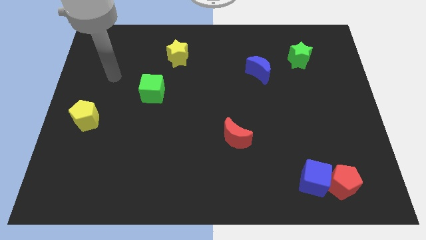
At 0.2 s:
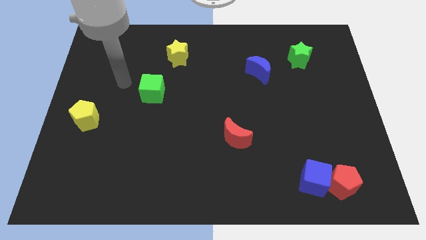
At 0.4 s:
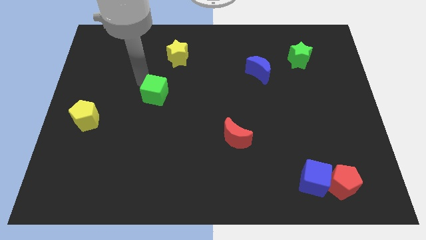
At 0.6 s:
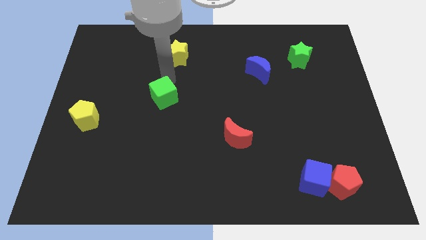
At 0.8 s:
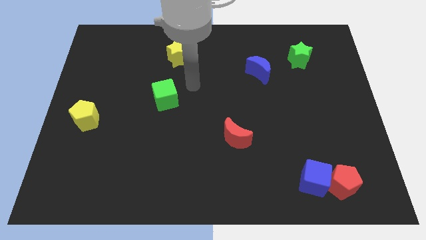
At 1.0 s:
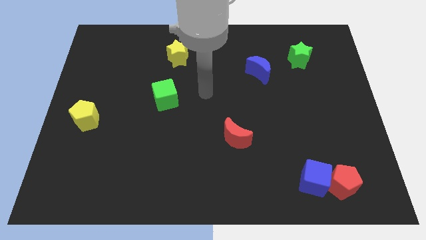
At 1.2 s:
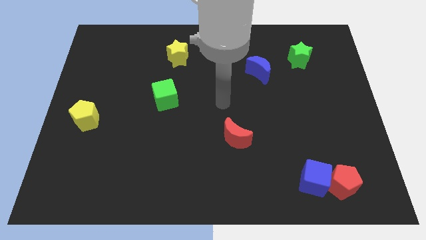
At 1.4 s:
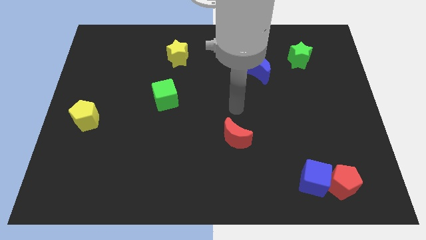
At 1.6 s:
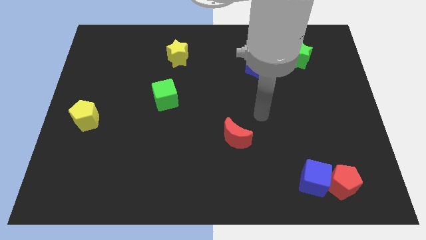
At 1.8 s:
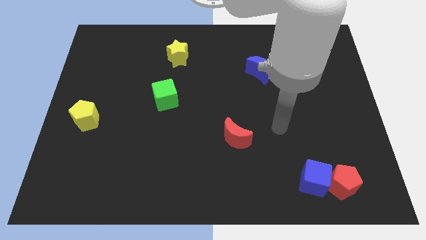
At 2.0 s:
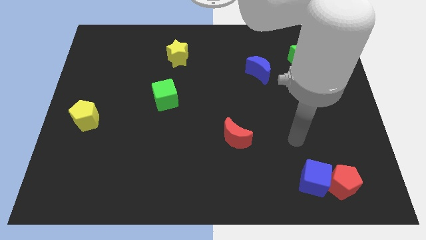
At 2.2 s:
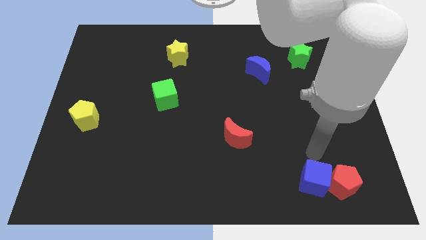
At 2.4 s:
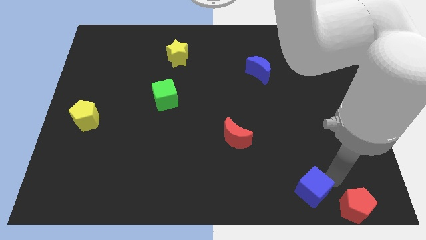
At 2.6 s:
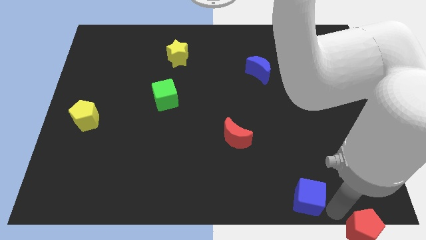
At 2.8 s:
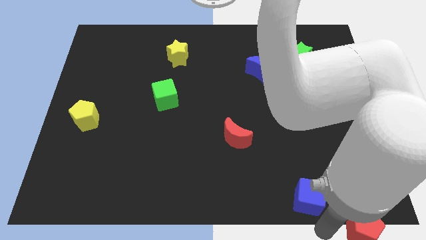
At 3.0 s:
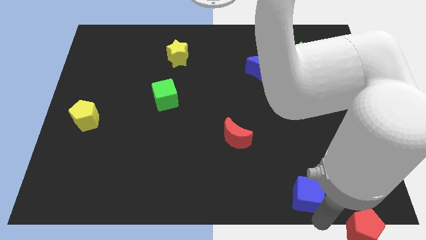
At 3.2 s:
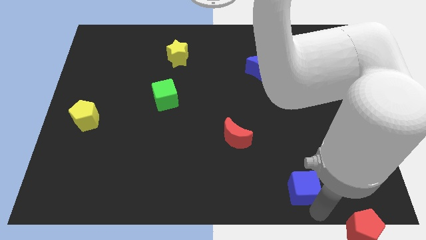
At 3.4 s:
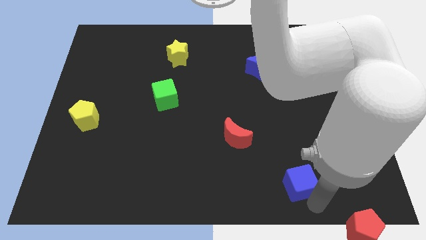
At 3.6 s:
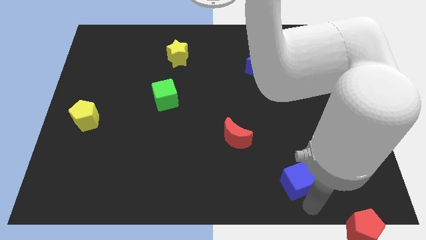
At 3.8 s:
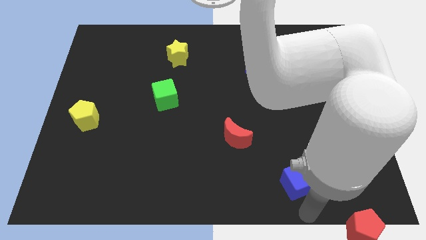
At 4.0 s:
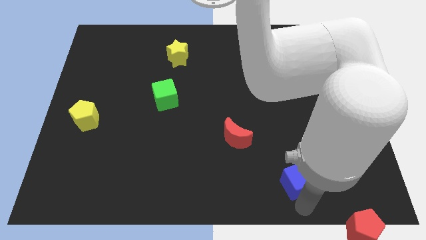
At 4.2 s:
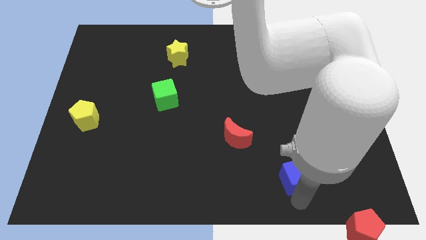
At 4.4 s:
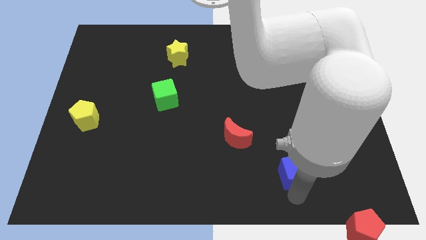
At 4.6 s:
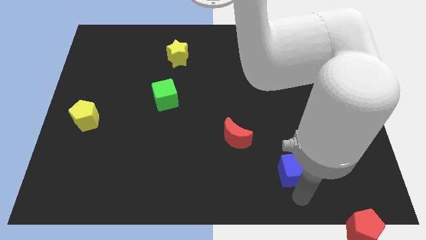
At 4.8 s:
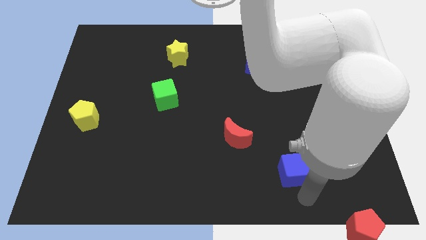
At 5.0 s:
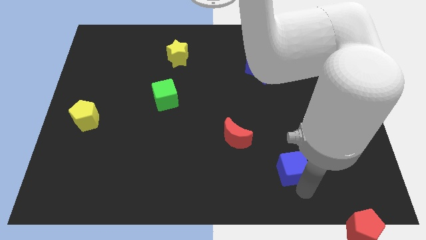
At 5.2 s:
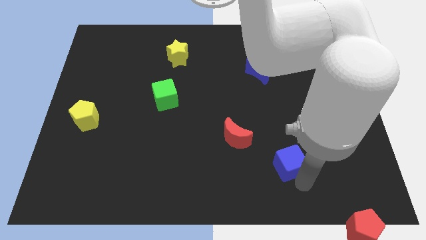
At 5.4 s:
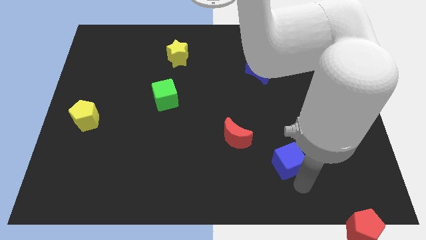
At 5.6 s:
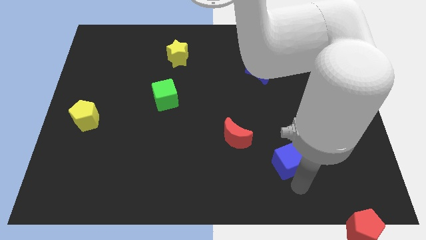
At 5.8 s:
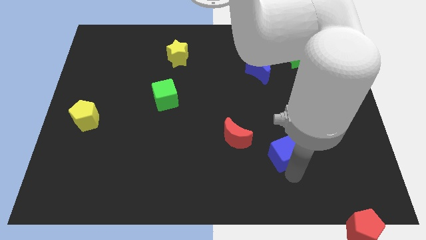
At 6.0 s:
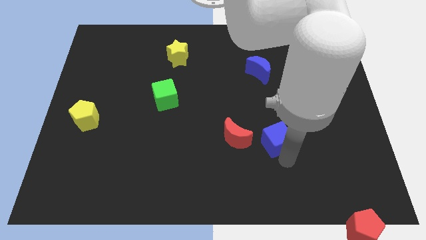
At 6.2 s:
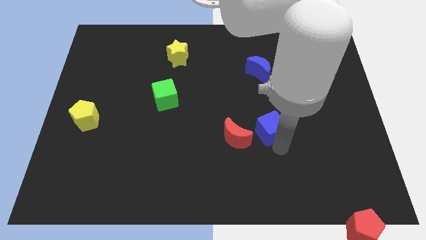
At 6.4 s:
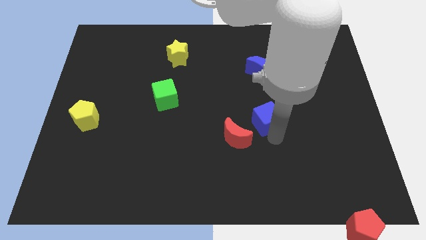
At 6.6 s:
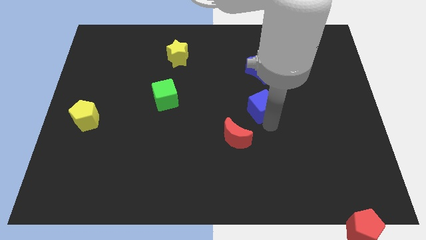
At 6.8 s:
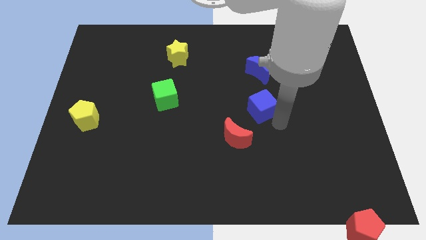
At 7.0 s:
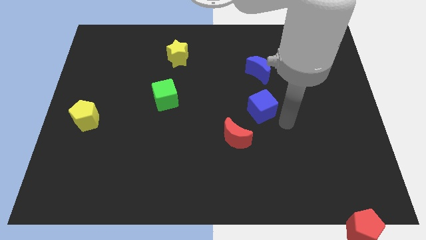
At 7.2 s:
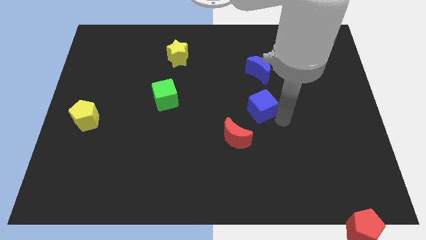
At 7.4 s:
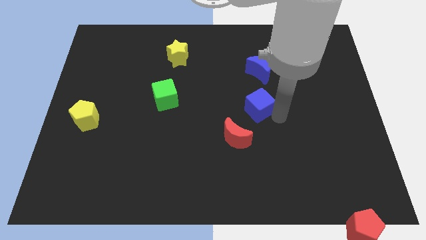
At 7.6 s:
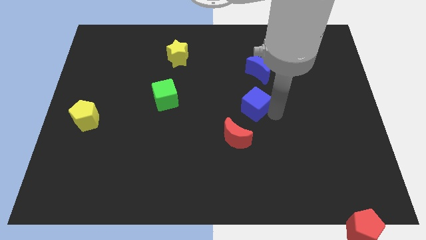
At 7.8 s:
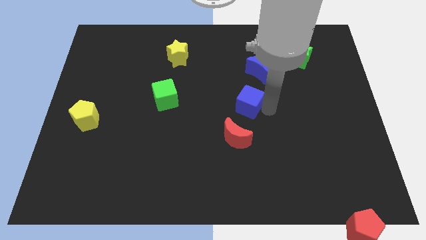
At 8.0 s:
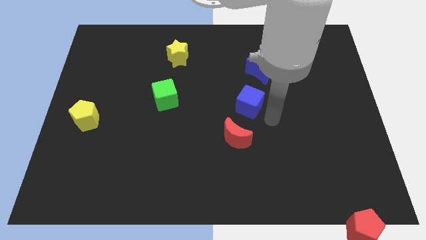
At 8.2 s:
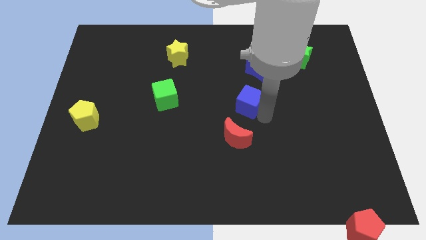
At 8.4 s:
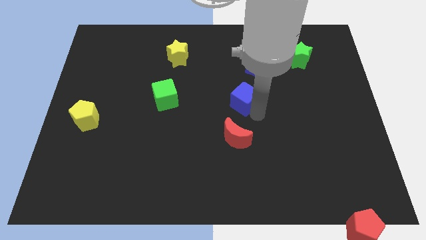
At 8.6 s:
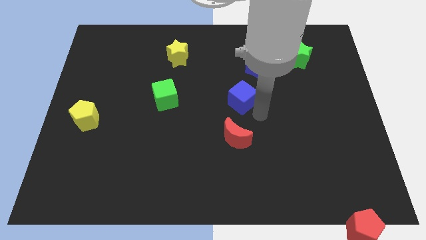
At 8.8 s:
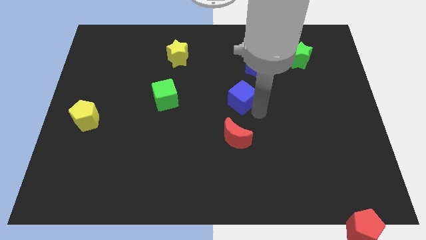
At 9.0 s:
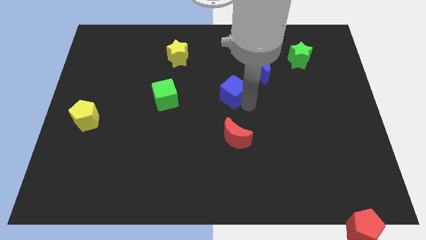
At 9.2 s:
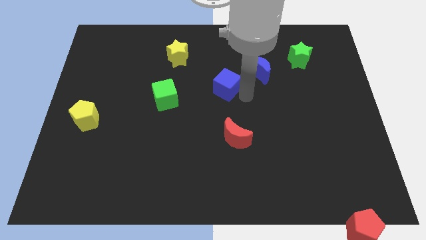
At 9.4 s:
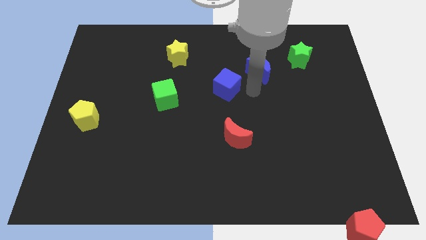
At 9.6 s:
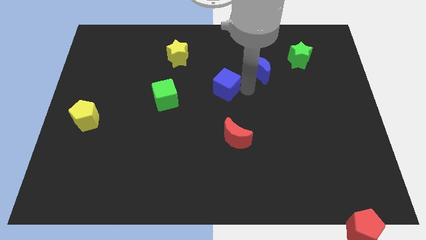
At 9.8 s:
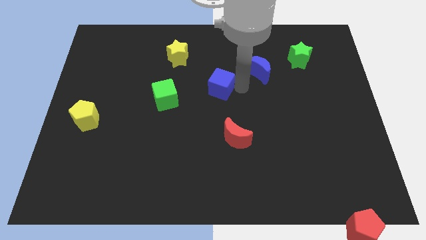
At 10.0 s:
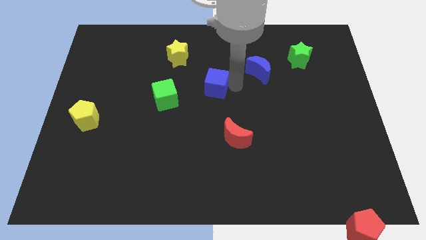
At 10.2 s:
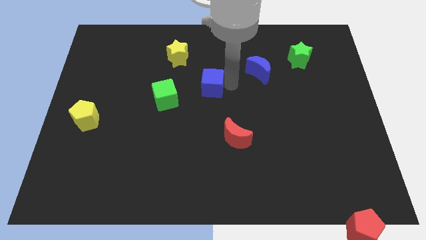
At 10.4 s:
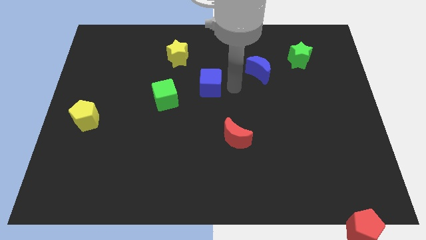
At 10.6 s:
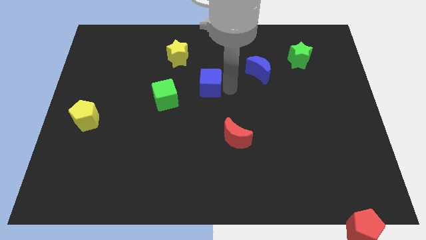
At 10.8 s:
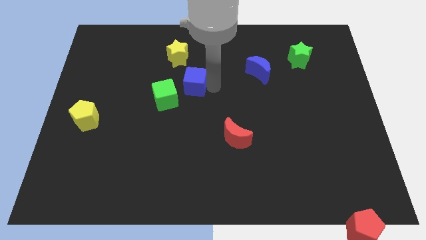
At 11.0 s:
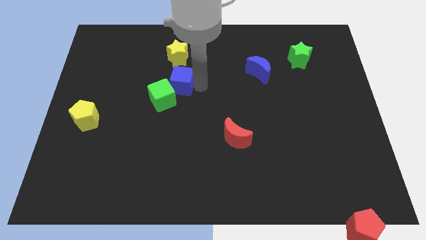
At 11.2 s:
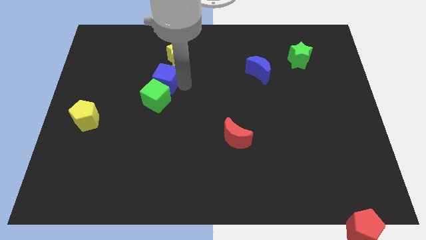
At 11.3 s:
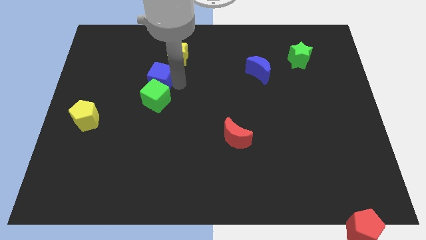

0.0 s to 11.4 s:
slide the blue cube diagonally up and to the left of the green cube

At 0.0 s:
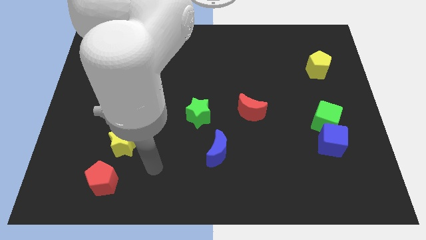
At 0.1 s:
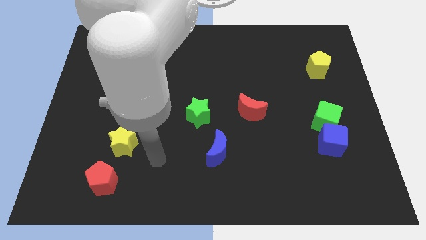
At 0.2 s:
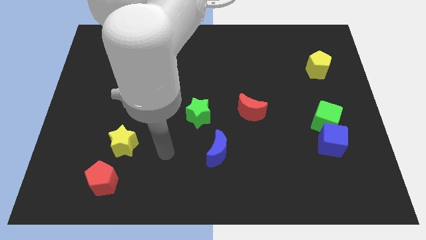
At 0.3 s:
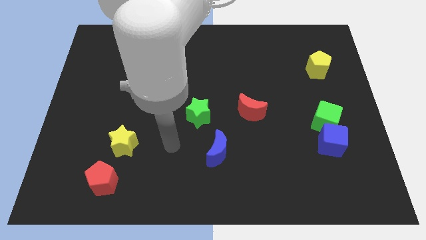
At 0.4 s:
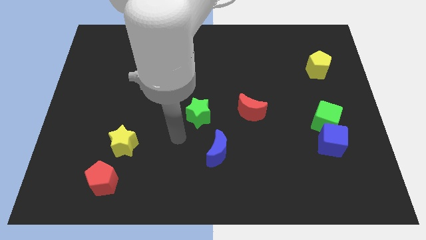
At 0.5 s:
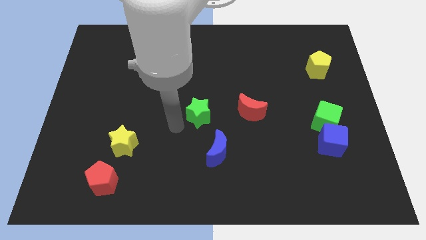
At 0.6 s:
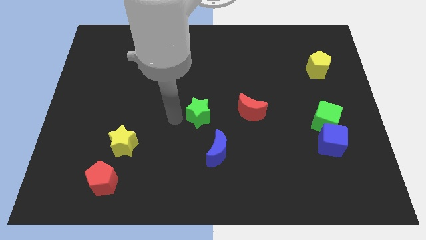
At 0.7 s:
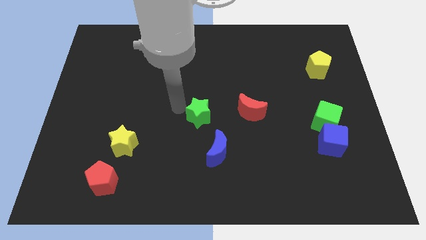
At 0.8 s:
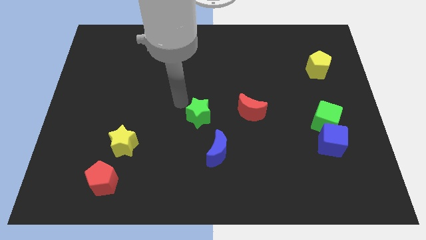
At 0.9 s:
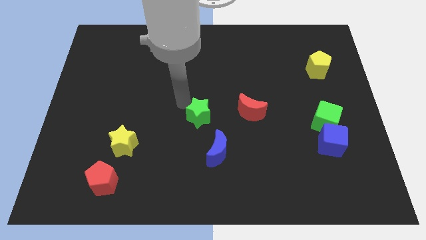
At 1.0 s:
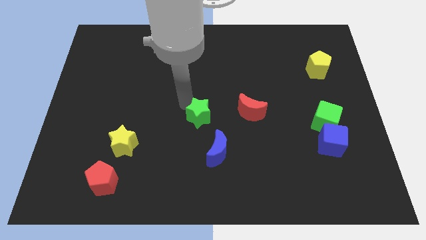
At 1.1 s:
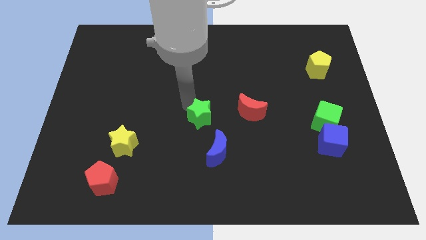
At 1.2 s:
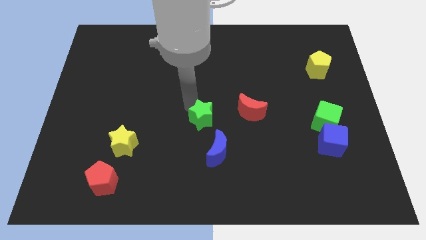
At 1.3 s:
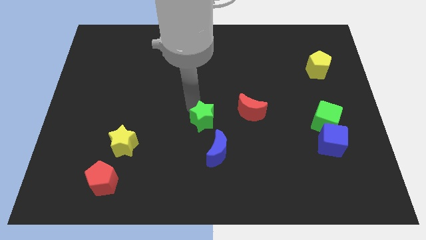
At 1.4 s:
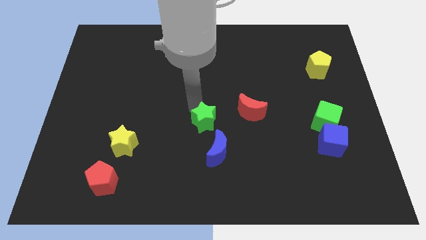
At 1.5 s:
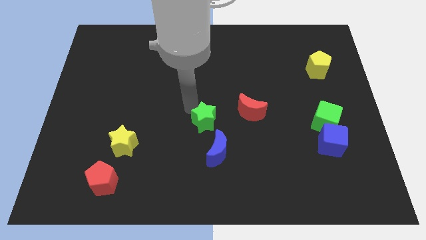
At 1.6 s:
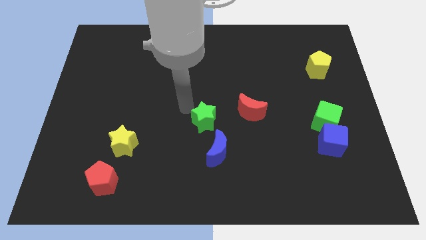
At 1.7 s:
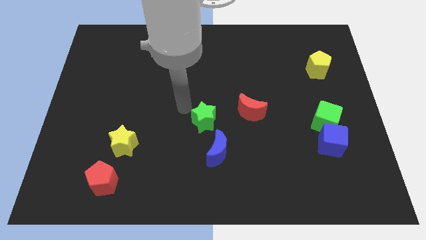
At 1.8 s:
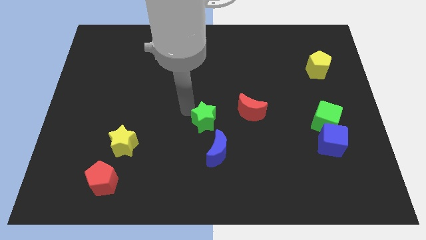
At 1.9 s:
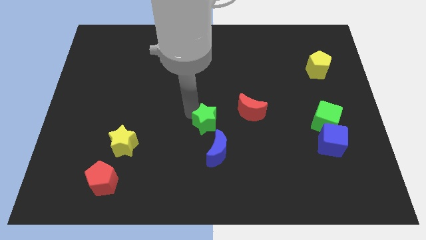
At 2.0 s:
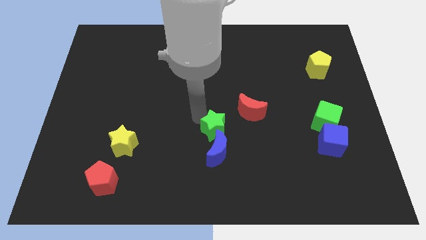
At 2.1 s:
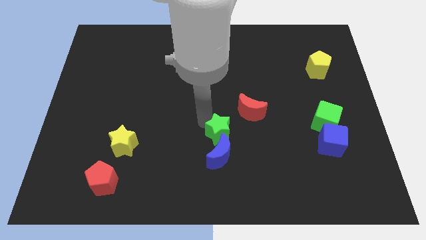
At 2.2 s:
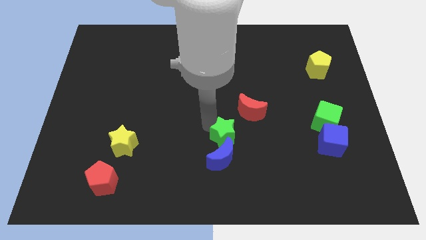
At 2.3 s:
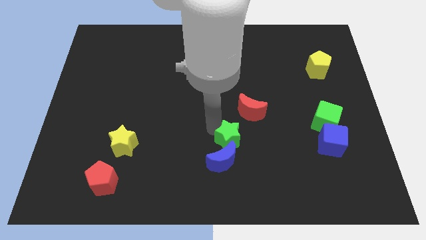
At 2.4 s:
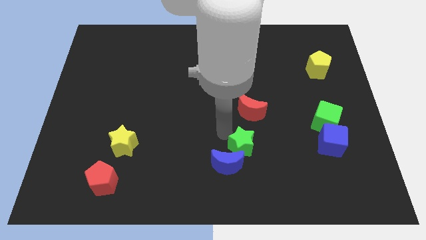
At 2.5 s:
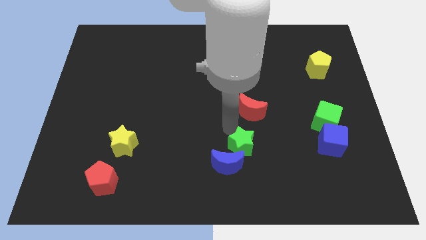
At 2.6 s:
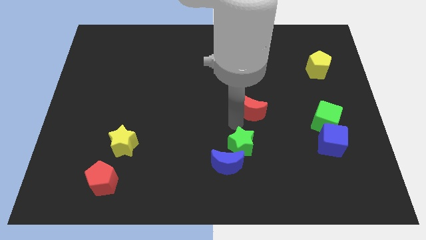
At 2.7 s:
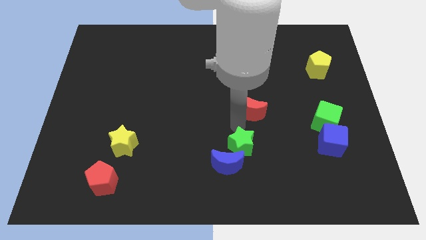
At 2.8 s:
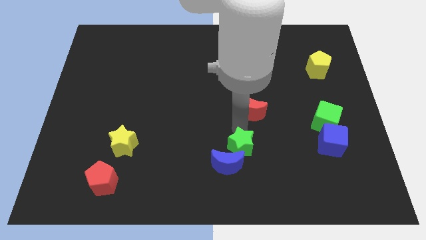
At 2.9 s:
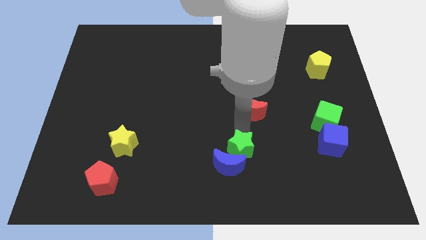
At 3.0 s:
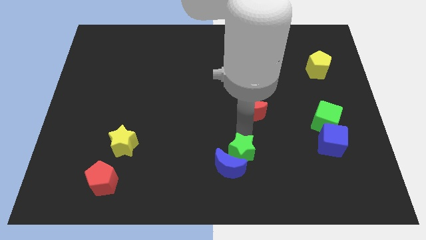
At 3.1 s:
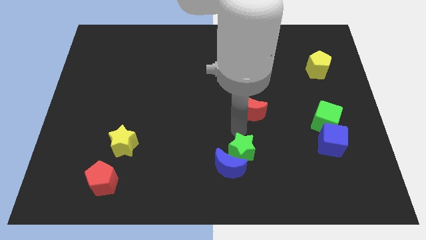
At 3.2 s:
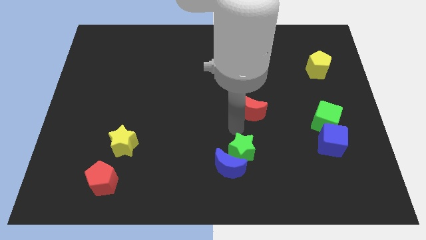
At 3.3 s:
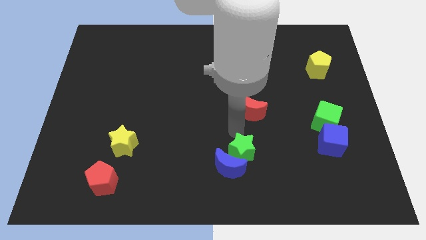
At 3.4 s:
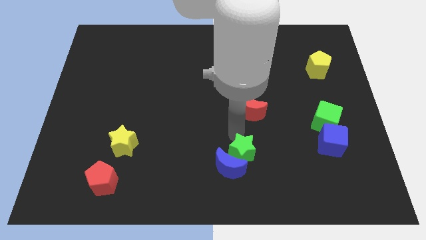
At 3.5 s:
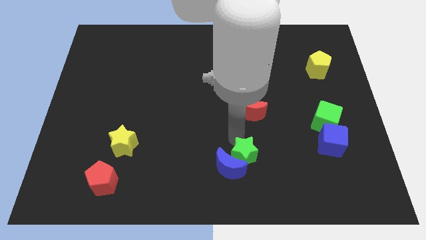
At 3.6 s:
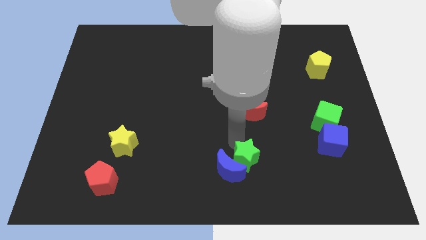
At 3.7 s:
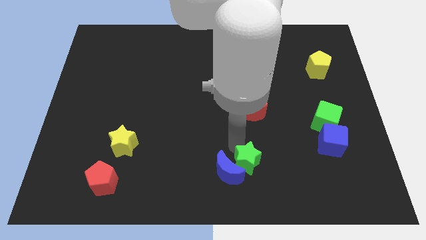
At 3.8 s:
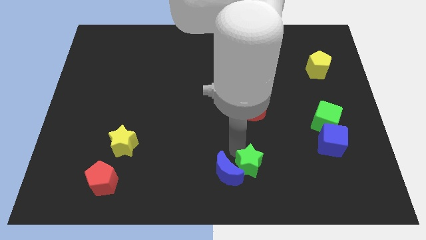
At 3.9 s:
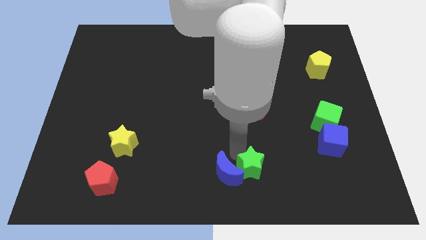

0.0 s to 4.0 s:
move the green star diagonally down and to the right of the blue moon
